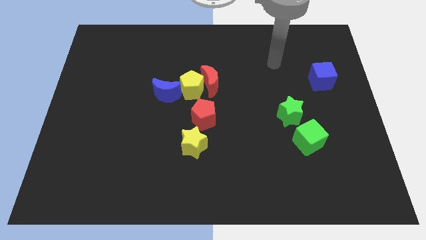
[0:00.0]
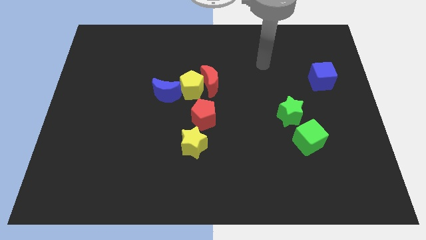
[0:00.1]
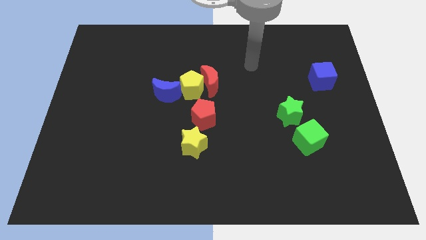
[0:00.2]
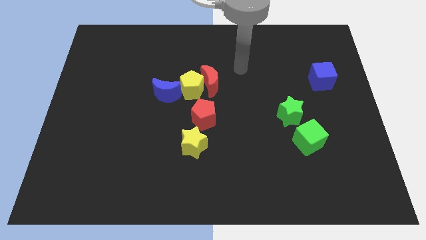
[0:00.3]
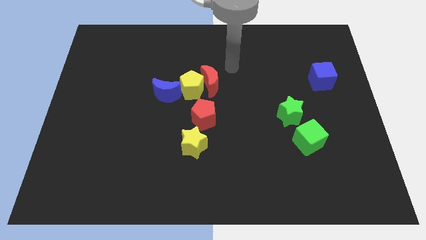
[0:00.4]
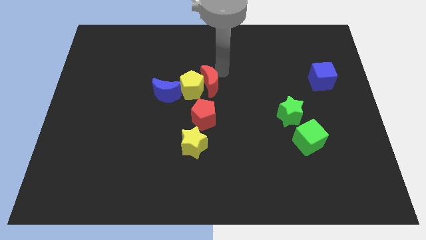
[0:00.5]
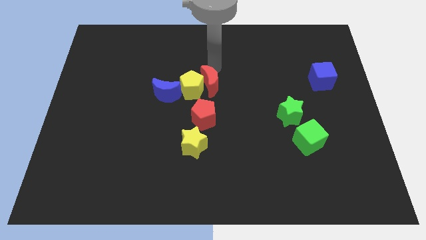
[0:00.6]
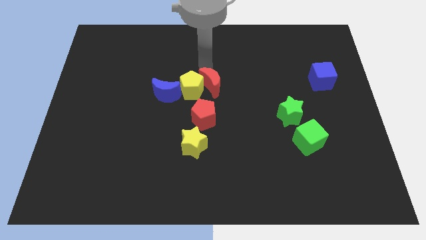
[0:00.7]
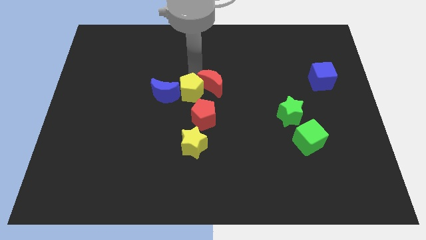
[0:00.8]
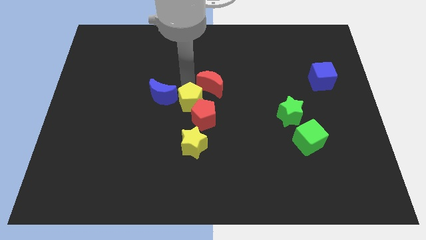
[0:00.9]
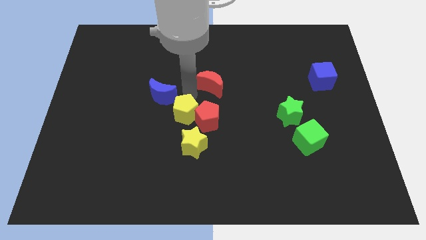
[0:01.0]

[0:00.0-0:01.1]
separate the red moon from the yellow pentagon

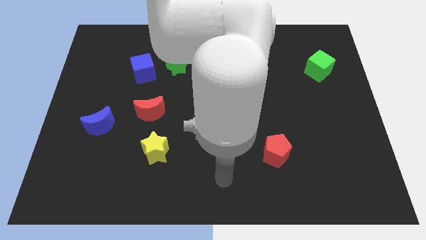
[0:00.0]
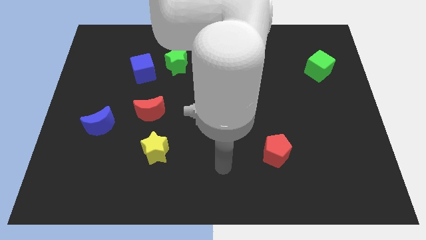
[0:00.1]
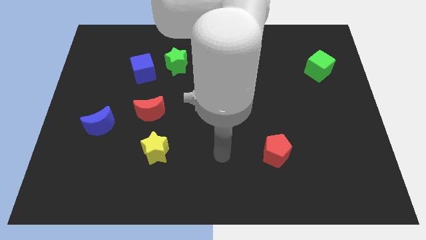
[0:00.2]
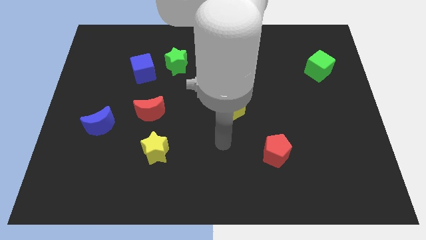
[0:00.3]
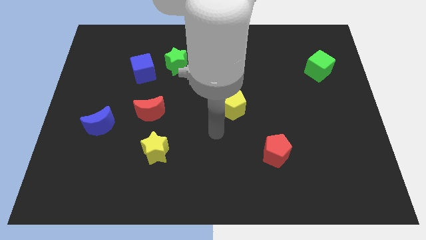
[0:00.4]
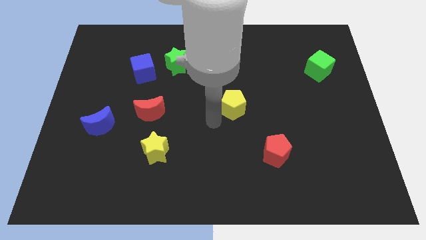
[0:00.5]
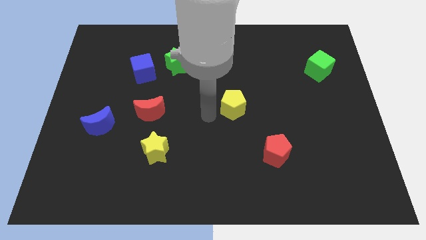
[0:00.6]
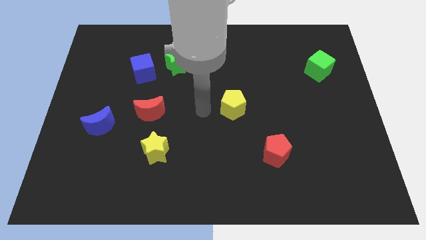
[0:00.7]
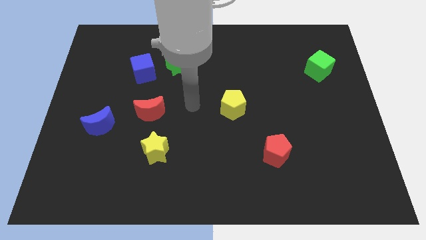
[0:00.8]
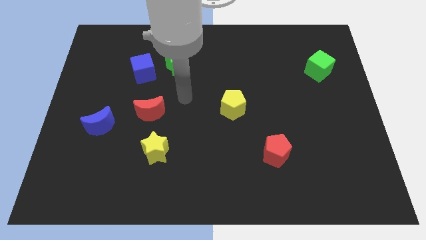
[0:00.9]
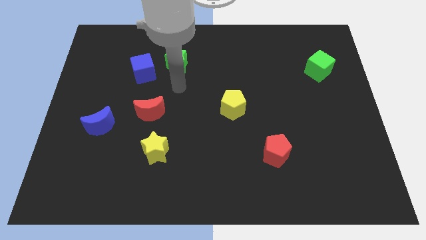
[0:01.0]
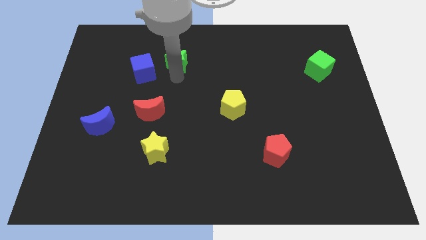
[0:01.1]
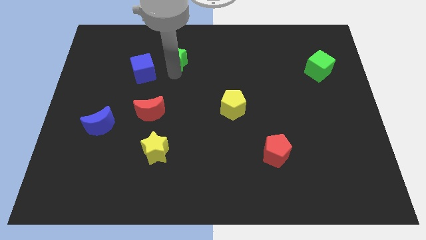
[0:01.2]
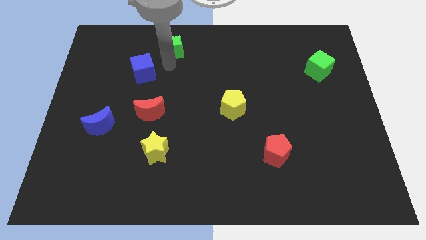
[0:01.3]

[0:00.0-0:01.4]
move the blue cube away from the green star

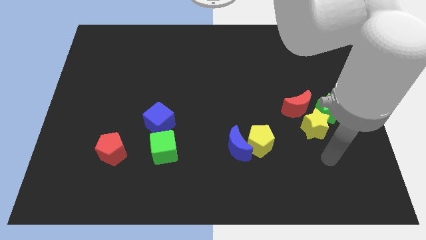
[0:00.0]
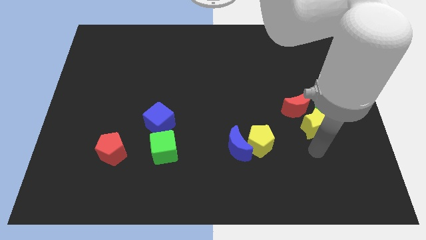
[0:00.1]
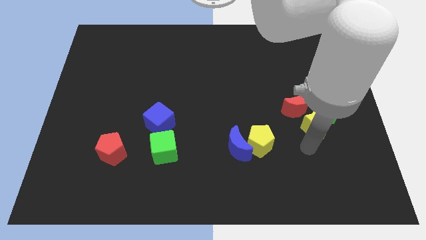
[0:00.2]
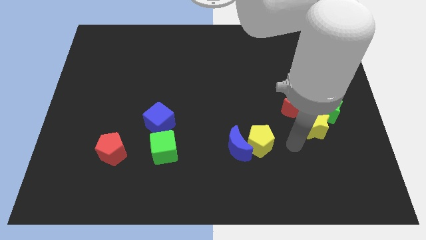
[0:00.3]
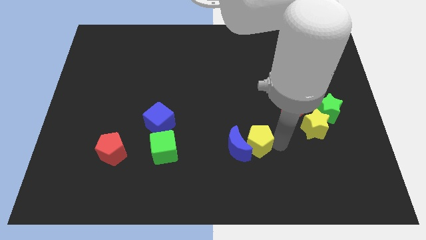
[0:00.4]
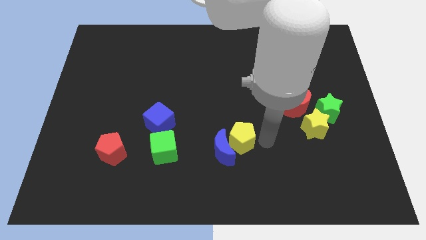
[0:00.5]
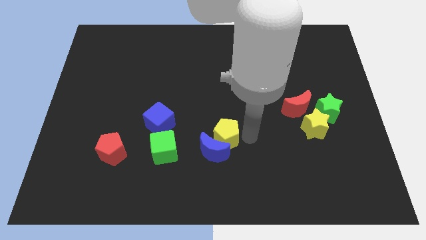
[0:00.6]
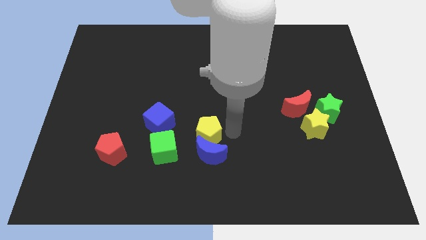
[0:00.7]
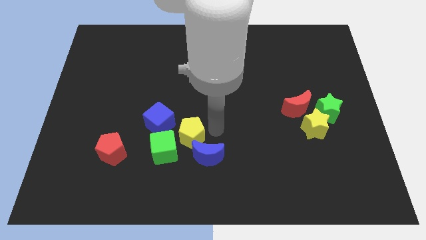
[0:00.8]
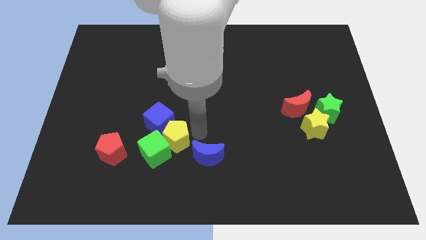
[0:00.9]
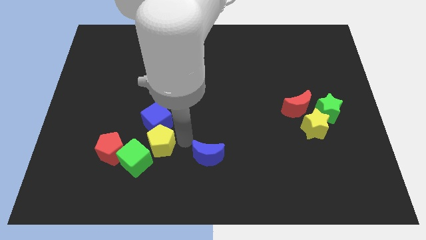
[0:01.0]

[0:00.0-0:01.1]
separate the blue moon from the yellow pentagon

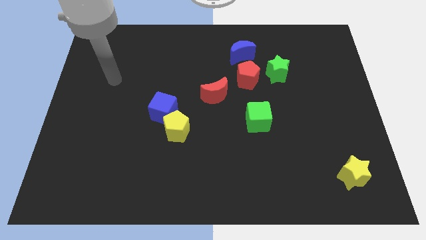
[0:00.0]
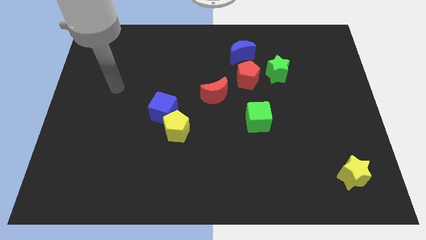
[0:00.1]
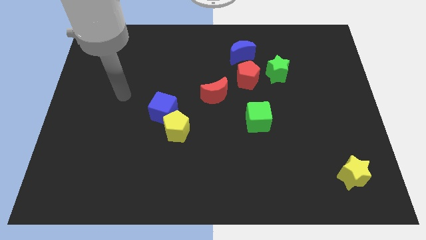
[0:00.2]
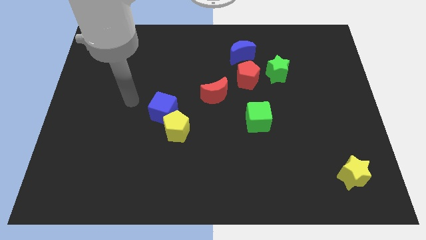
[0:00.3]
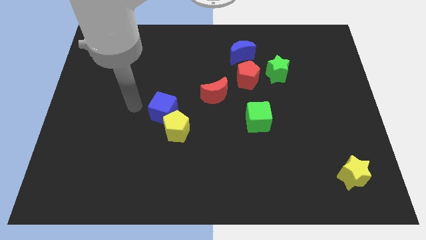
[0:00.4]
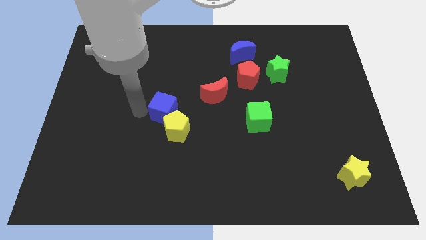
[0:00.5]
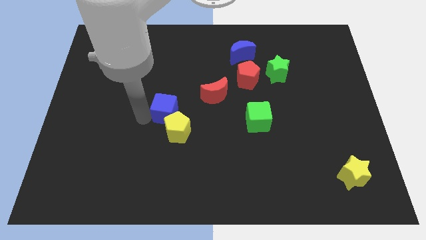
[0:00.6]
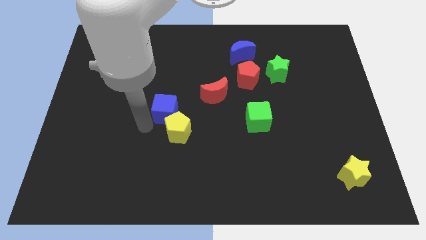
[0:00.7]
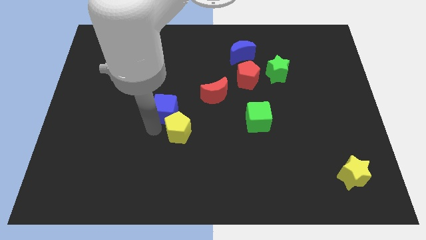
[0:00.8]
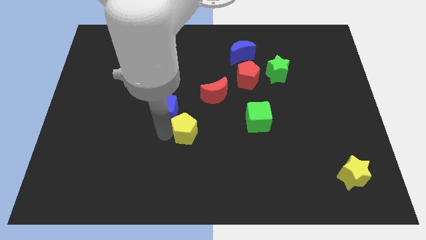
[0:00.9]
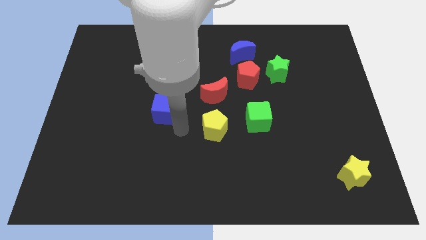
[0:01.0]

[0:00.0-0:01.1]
pull the blue cube apart from the yellow pentagon

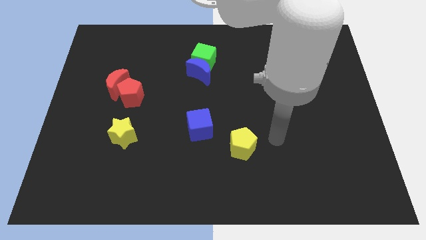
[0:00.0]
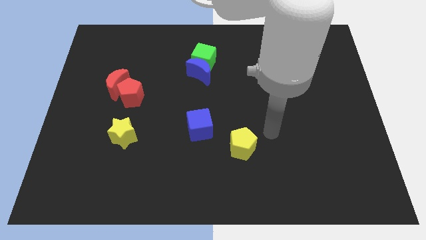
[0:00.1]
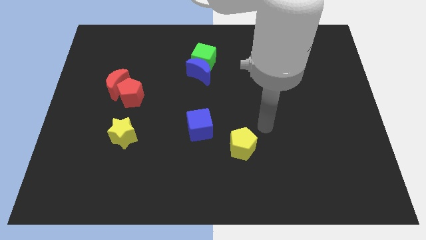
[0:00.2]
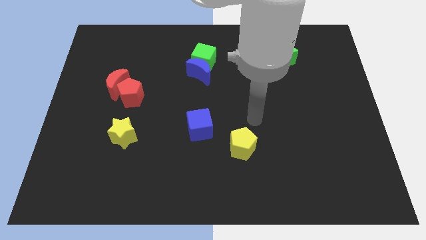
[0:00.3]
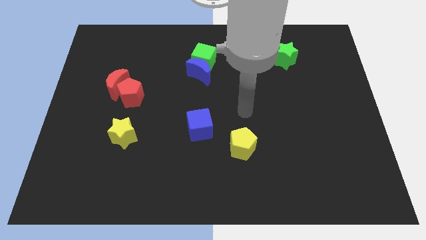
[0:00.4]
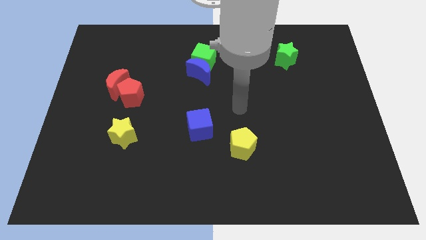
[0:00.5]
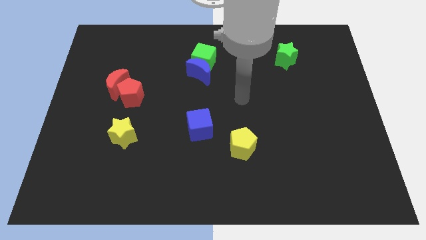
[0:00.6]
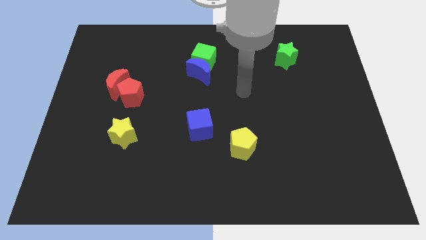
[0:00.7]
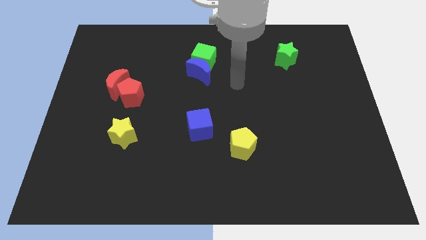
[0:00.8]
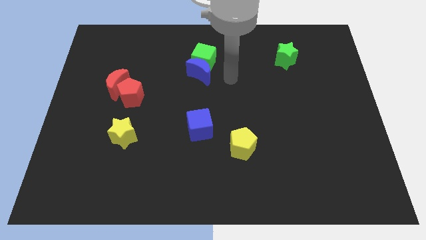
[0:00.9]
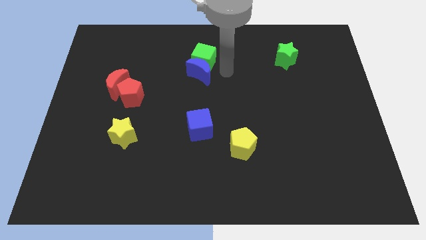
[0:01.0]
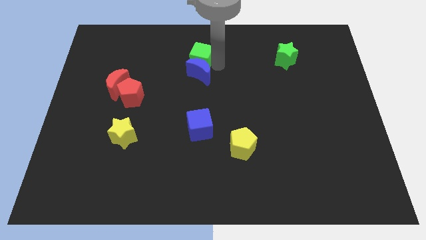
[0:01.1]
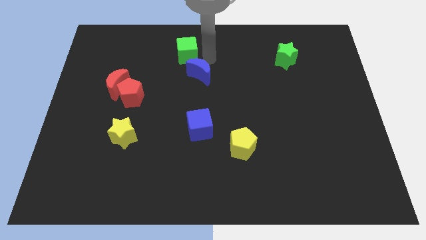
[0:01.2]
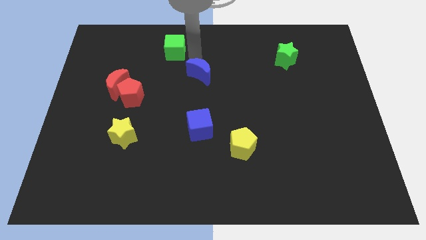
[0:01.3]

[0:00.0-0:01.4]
pull the blue moon apart from the green cube

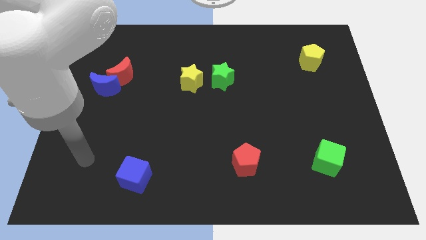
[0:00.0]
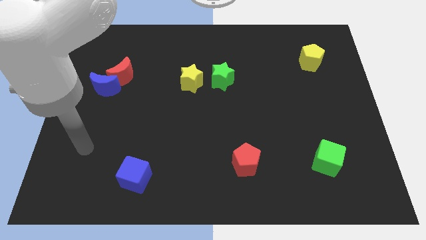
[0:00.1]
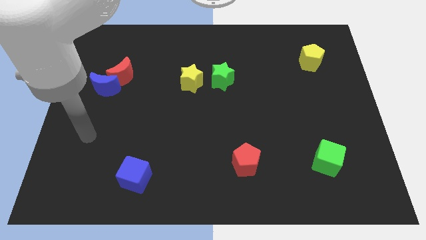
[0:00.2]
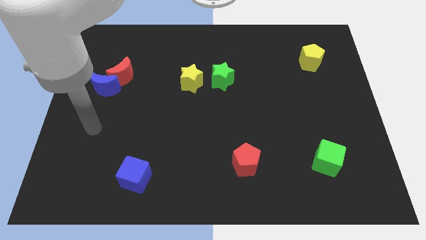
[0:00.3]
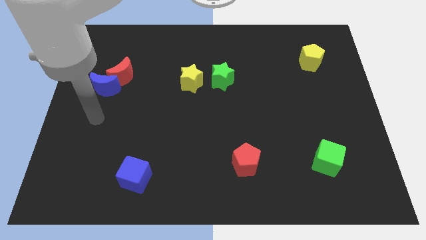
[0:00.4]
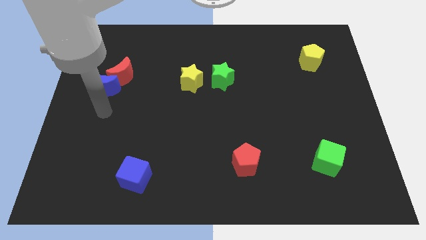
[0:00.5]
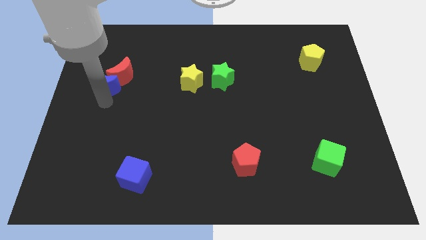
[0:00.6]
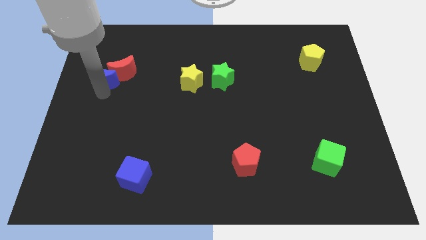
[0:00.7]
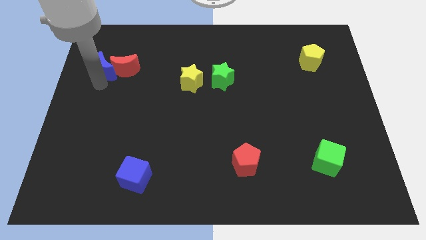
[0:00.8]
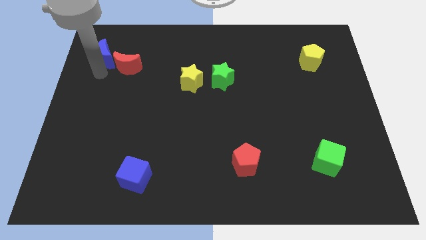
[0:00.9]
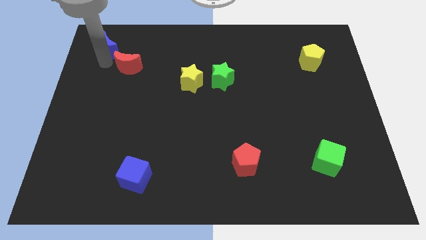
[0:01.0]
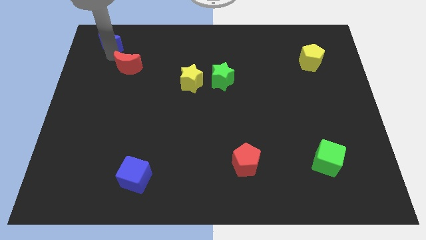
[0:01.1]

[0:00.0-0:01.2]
move the red moon away from the blue moon

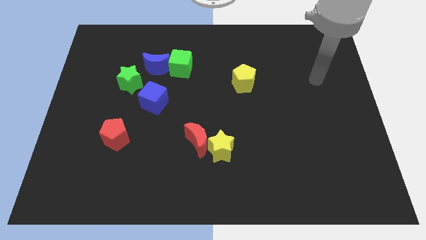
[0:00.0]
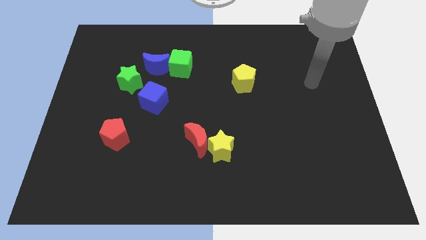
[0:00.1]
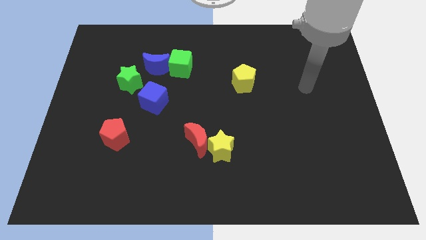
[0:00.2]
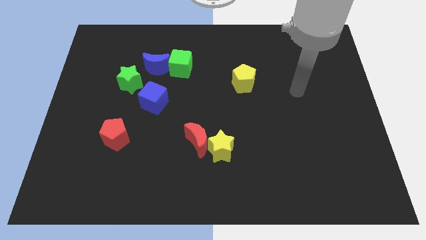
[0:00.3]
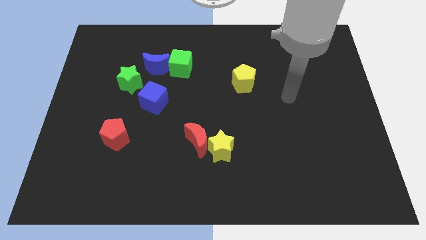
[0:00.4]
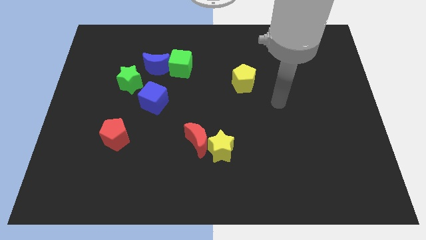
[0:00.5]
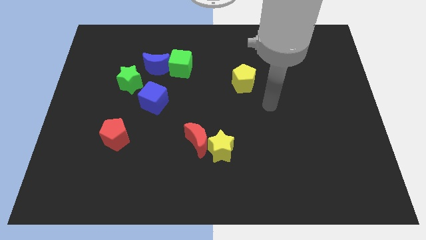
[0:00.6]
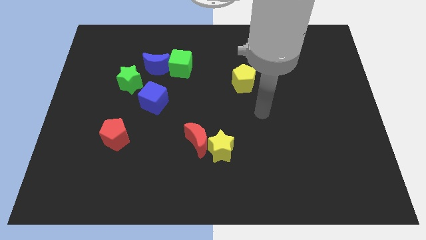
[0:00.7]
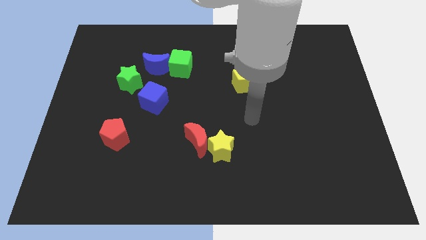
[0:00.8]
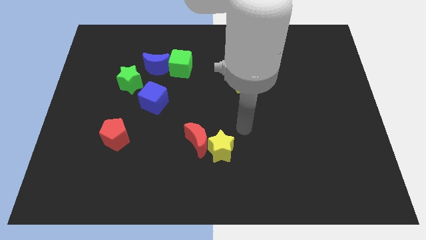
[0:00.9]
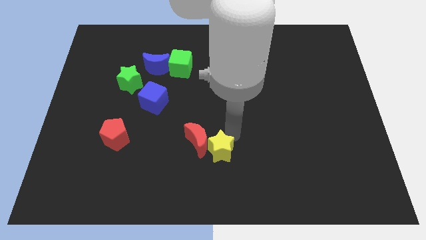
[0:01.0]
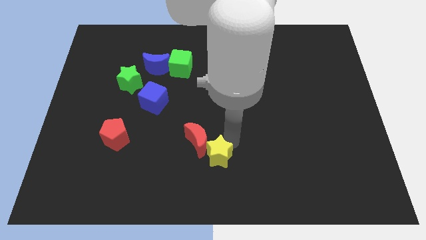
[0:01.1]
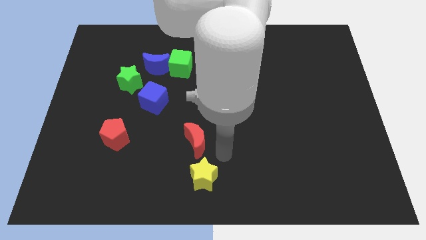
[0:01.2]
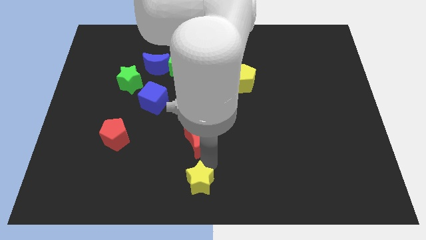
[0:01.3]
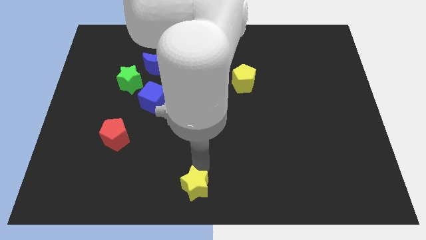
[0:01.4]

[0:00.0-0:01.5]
pull the red moon apart from the yellow star

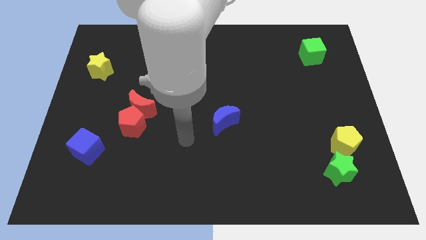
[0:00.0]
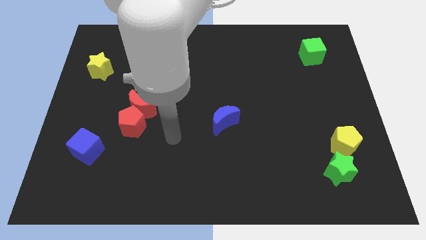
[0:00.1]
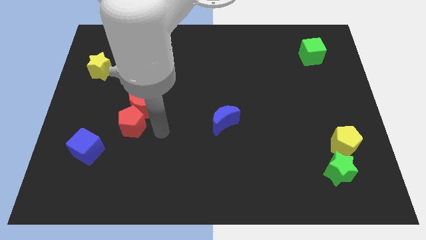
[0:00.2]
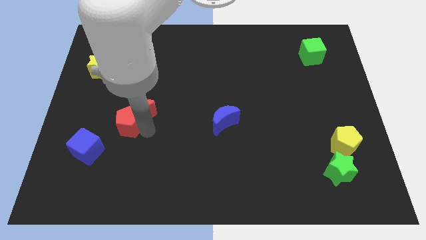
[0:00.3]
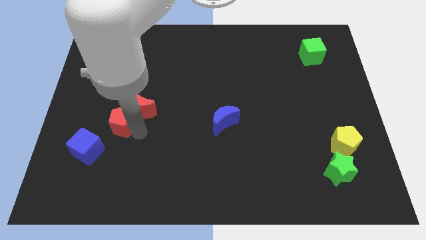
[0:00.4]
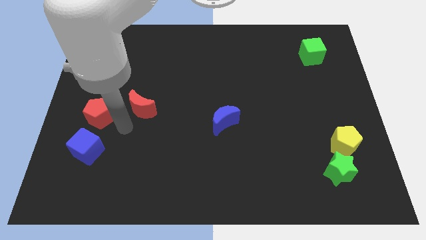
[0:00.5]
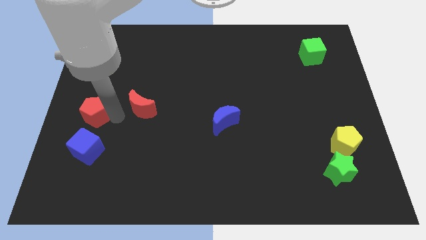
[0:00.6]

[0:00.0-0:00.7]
pull the red moon apart from the red pentagon
